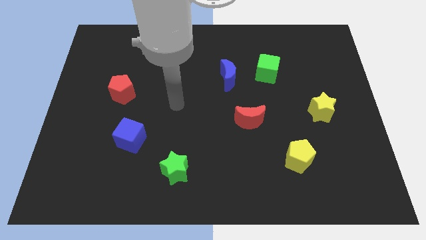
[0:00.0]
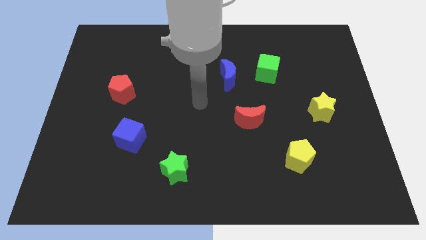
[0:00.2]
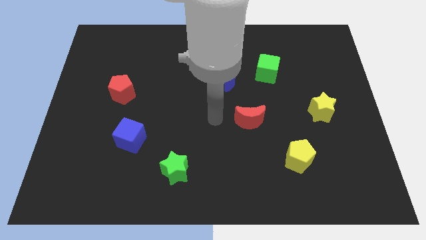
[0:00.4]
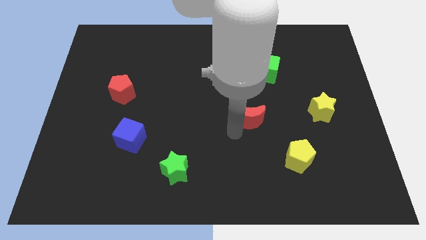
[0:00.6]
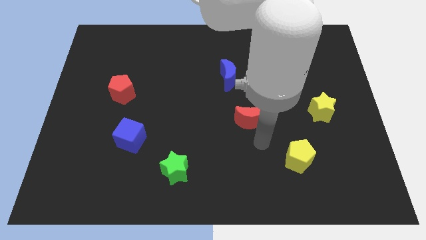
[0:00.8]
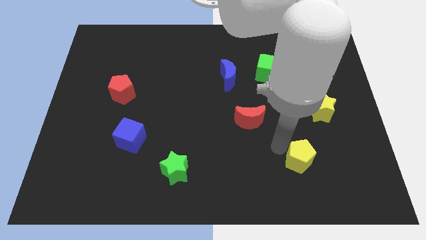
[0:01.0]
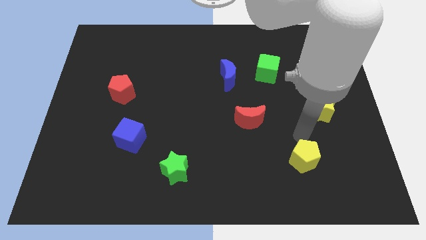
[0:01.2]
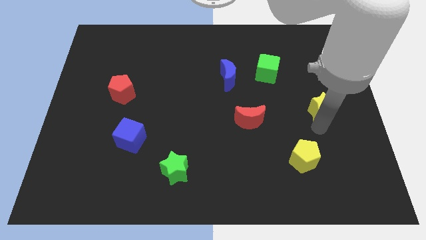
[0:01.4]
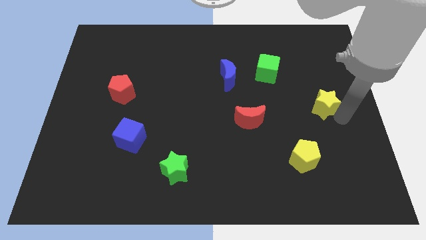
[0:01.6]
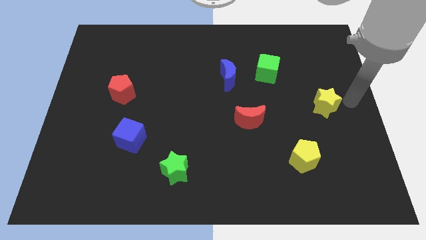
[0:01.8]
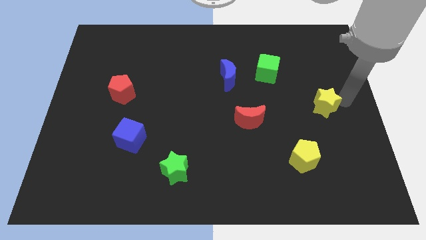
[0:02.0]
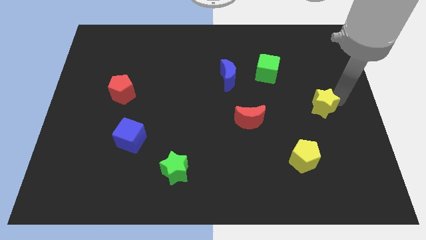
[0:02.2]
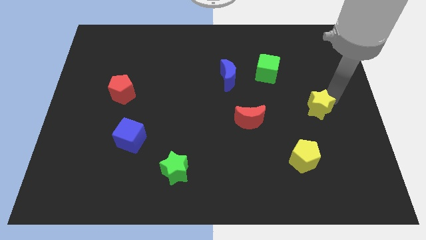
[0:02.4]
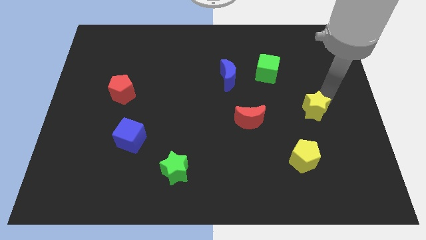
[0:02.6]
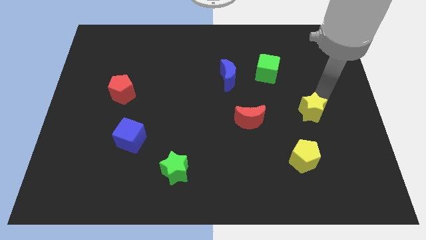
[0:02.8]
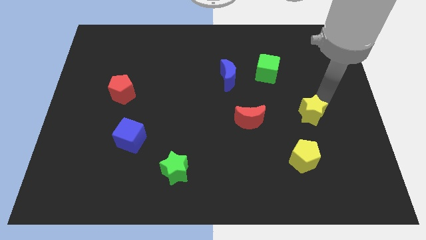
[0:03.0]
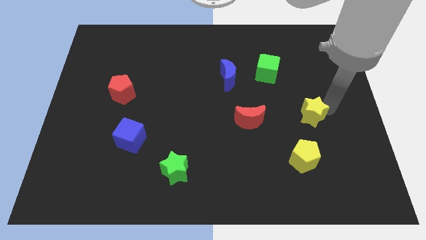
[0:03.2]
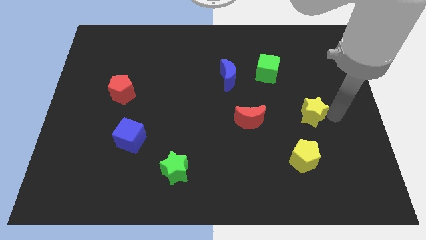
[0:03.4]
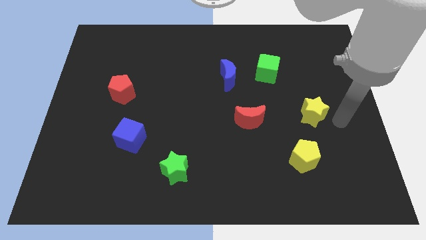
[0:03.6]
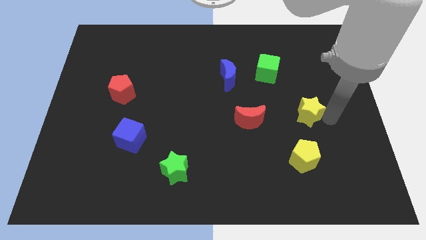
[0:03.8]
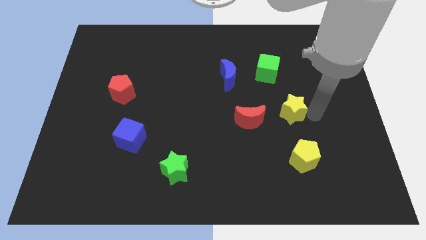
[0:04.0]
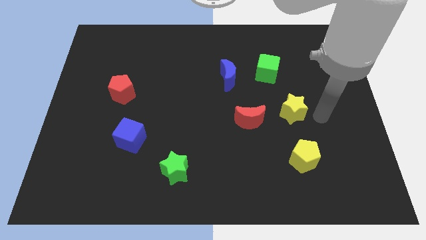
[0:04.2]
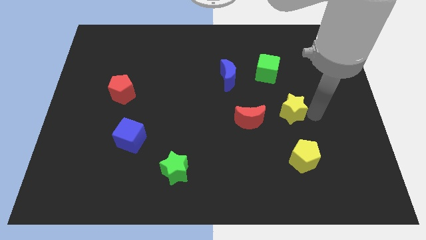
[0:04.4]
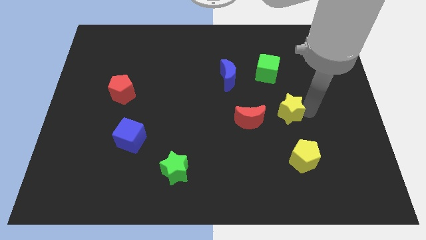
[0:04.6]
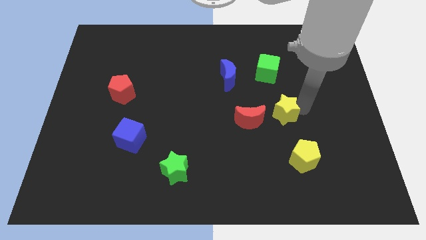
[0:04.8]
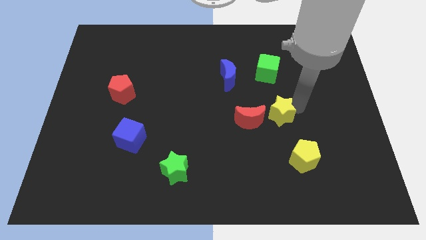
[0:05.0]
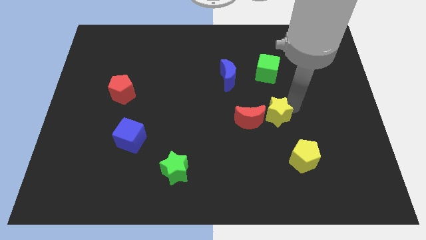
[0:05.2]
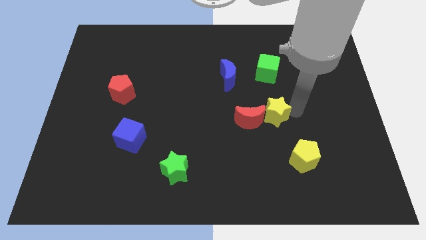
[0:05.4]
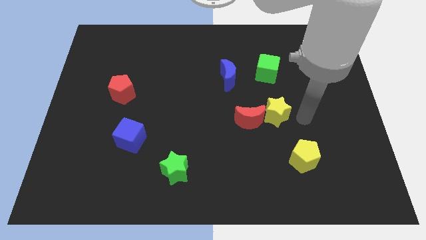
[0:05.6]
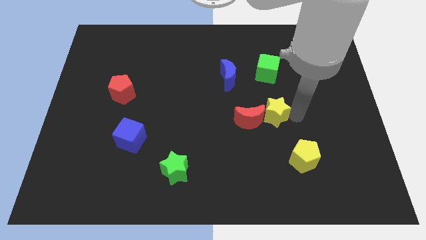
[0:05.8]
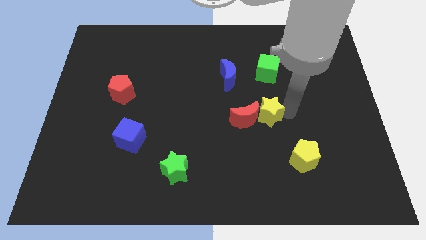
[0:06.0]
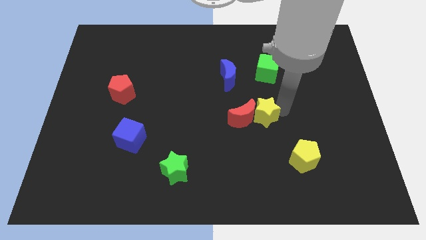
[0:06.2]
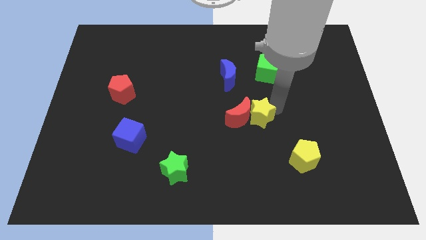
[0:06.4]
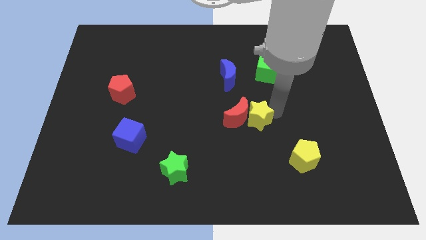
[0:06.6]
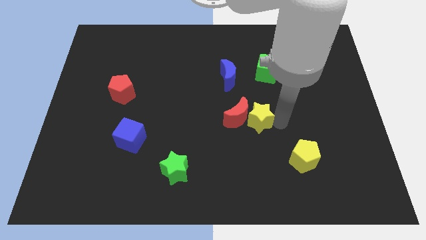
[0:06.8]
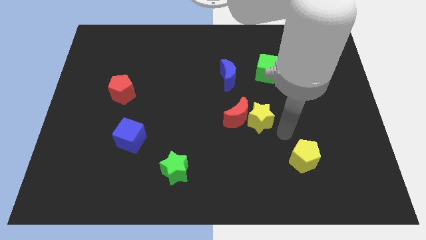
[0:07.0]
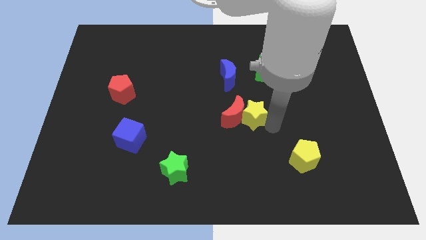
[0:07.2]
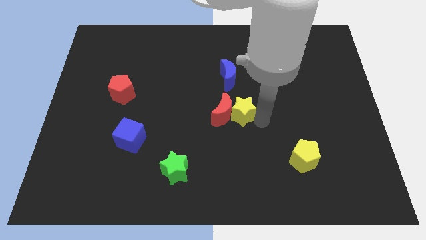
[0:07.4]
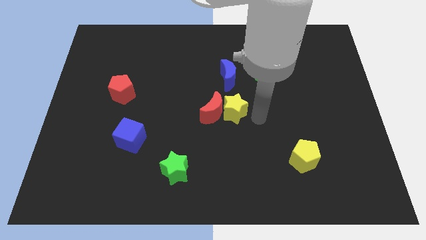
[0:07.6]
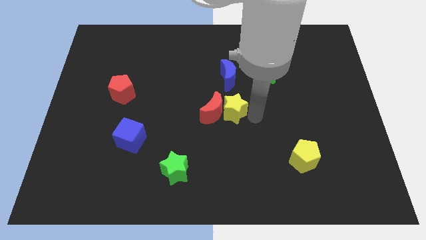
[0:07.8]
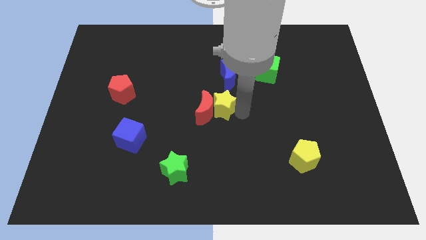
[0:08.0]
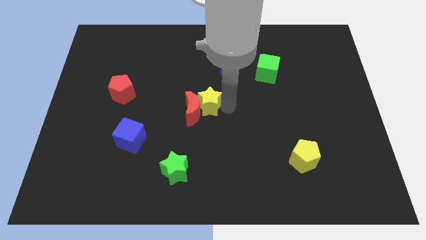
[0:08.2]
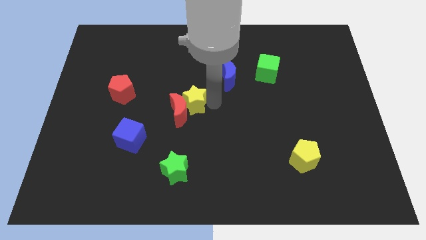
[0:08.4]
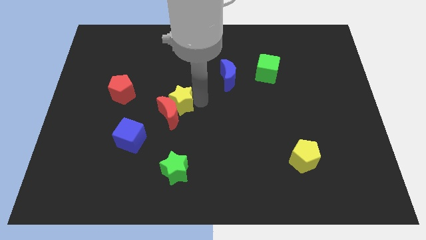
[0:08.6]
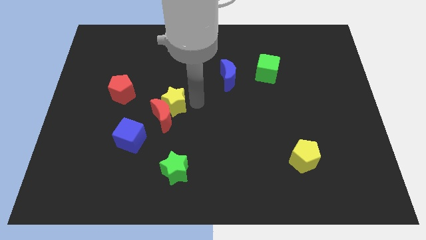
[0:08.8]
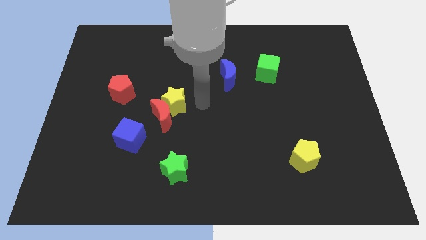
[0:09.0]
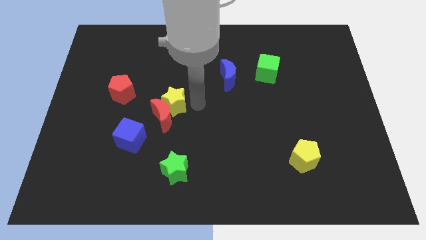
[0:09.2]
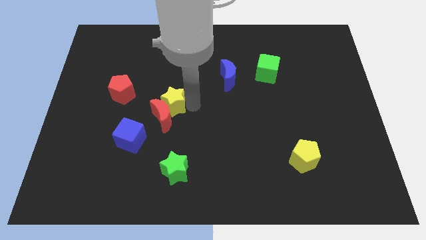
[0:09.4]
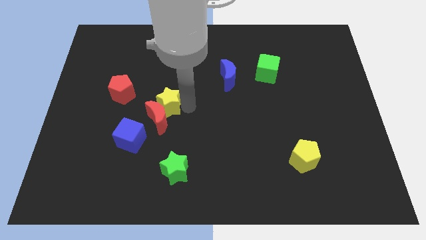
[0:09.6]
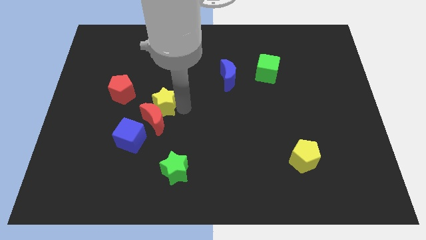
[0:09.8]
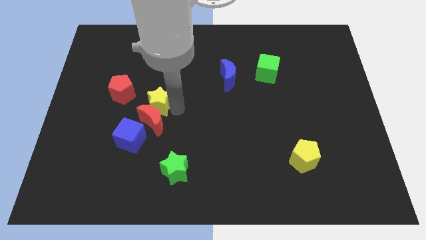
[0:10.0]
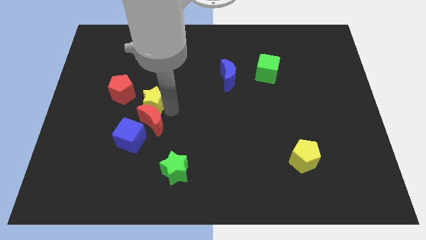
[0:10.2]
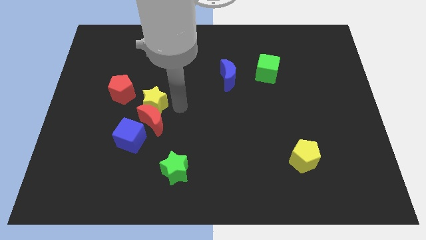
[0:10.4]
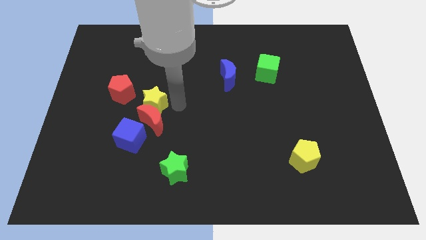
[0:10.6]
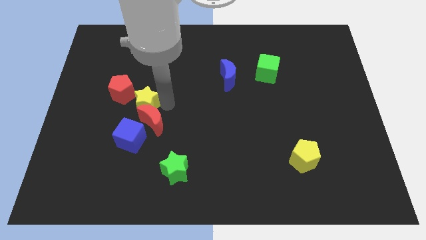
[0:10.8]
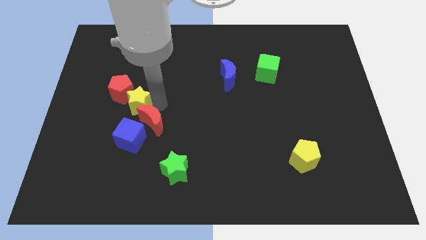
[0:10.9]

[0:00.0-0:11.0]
slide the yellow star next to the red pentagon

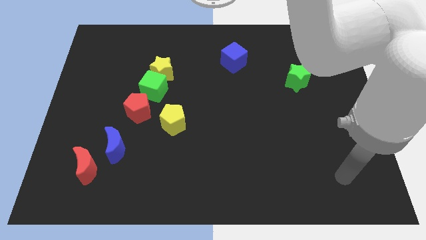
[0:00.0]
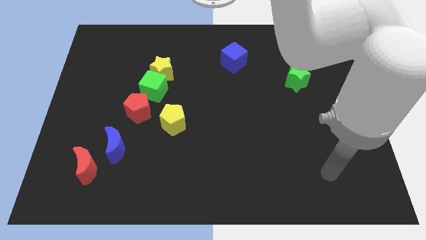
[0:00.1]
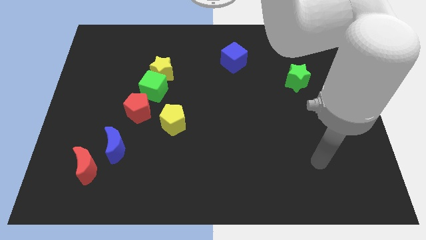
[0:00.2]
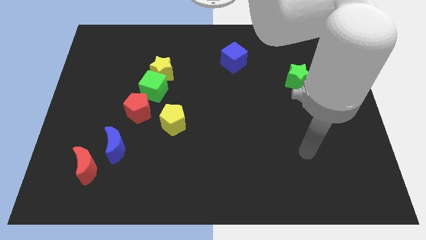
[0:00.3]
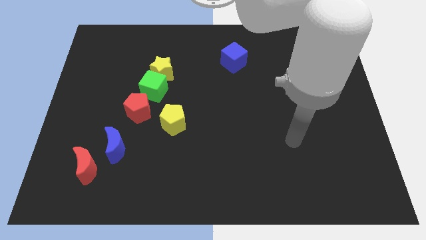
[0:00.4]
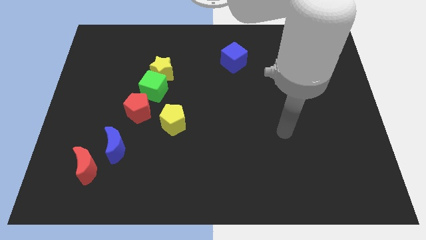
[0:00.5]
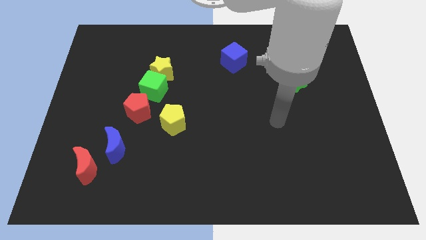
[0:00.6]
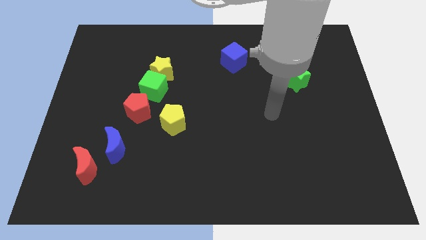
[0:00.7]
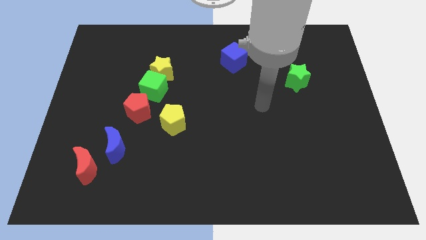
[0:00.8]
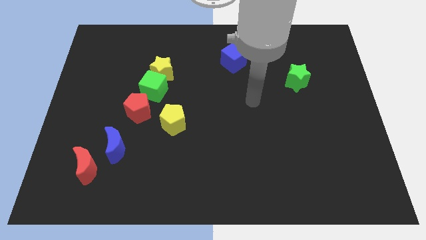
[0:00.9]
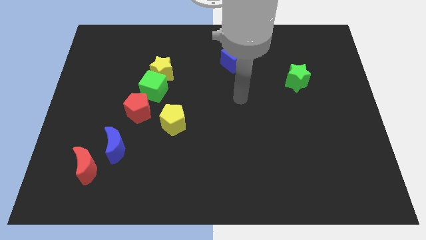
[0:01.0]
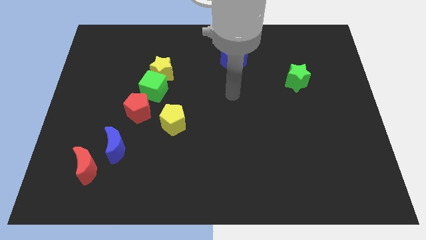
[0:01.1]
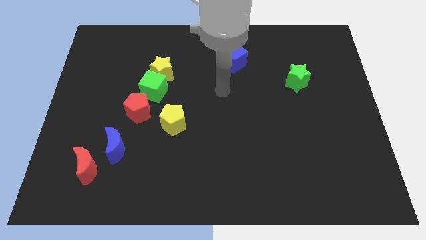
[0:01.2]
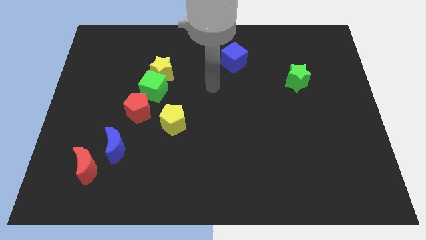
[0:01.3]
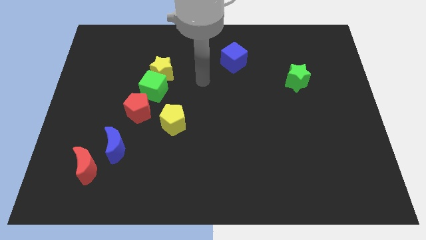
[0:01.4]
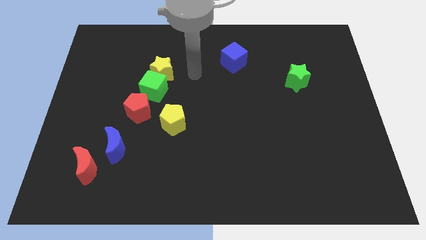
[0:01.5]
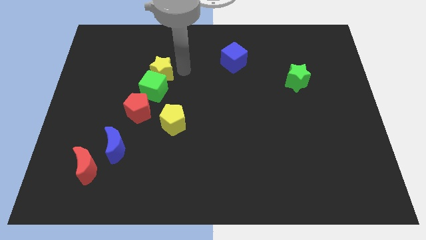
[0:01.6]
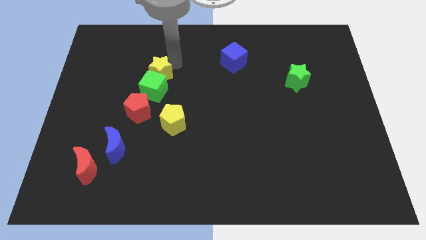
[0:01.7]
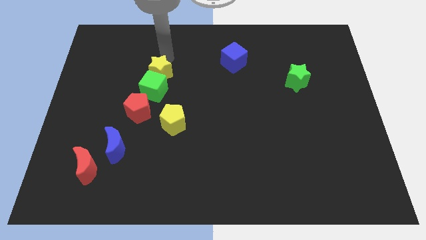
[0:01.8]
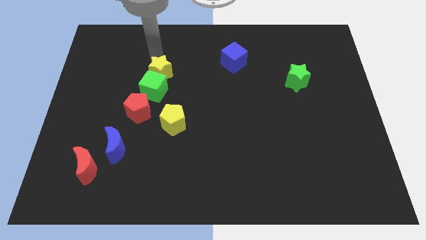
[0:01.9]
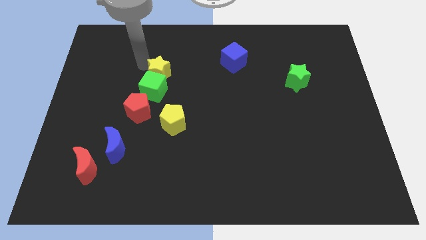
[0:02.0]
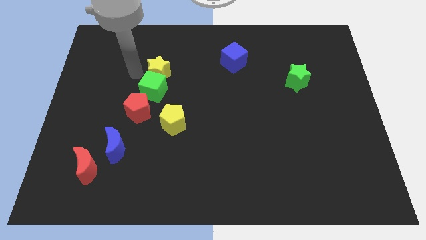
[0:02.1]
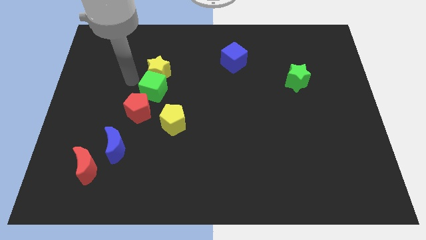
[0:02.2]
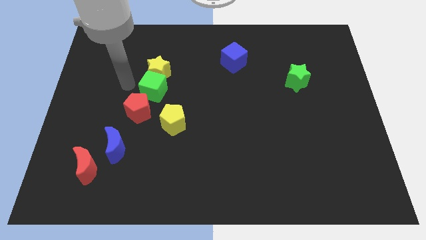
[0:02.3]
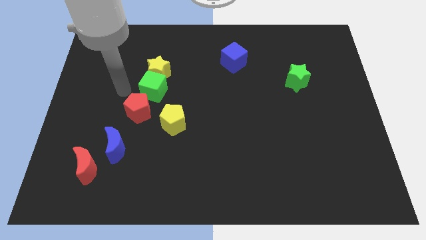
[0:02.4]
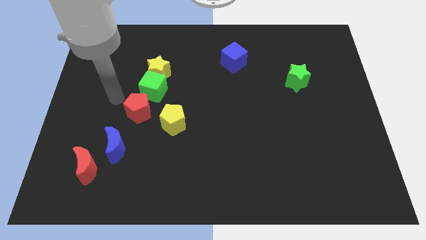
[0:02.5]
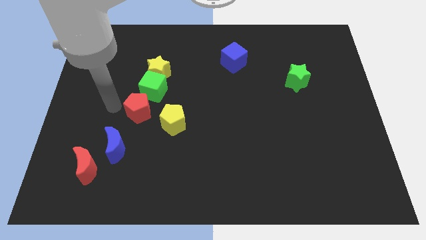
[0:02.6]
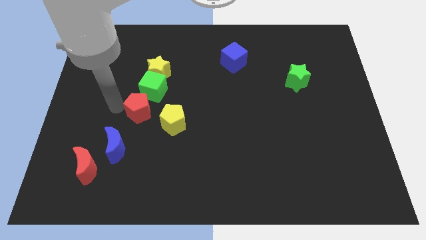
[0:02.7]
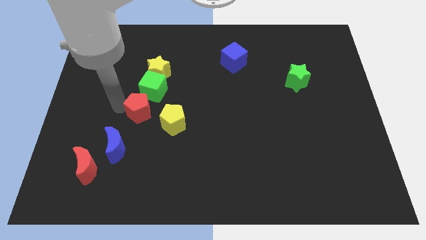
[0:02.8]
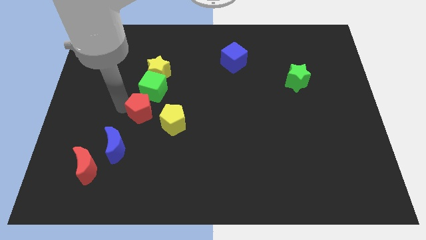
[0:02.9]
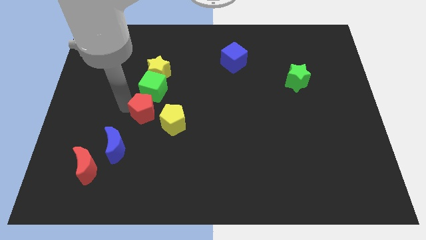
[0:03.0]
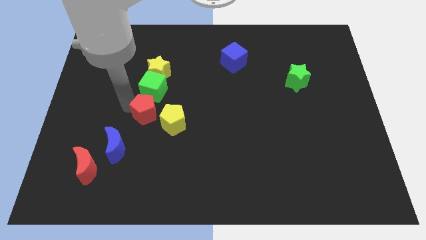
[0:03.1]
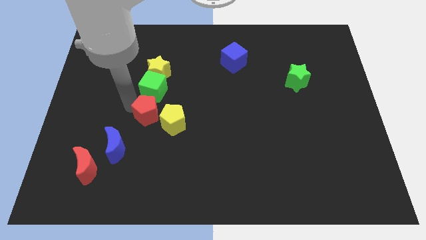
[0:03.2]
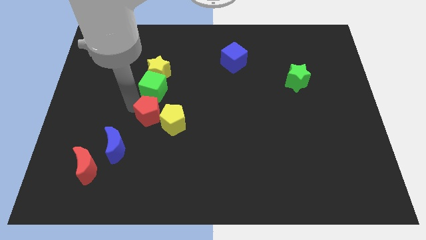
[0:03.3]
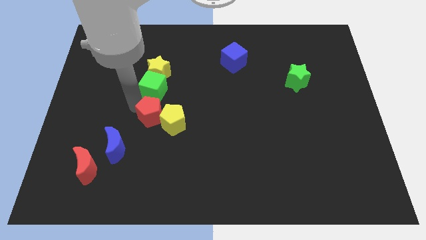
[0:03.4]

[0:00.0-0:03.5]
push the red pentagon towards the yellow pentagon
